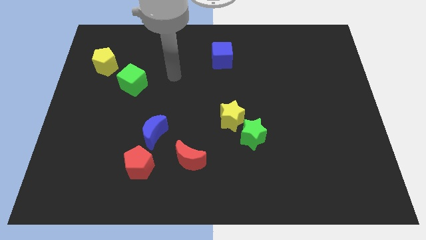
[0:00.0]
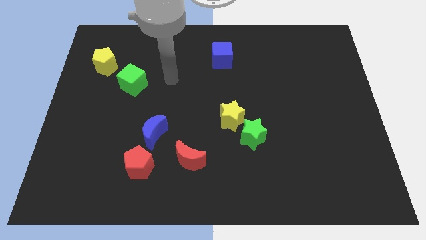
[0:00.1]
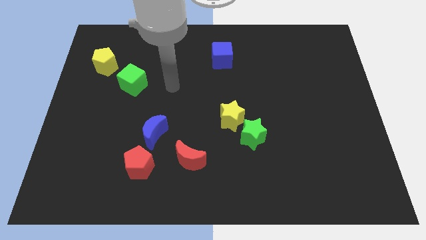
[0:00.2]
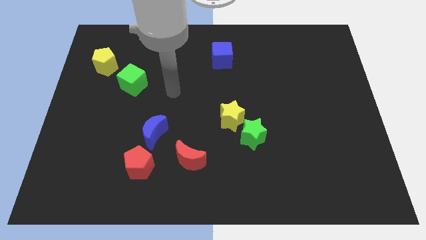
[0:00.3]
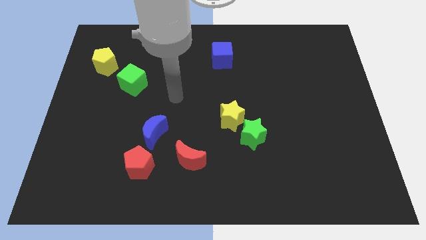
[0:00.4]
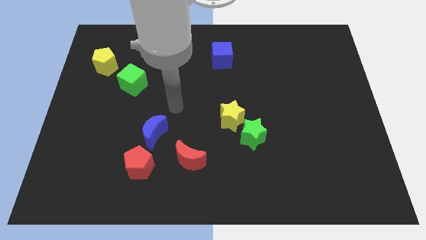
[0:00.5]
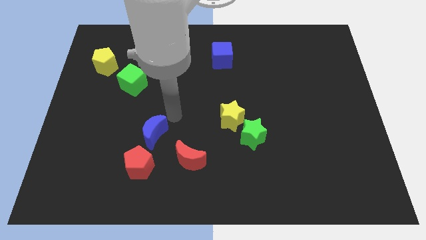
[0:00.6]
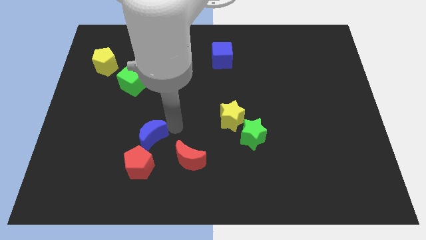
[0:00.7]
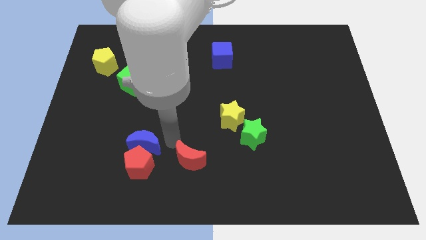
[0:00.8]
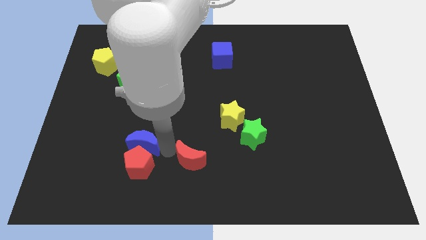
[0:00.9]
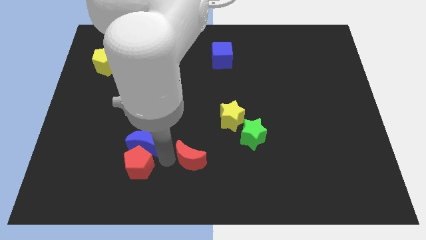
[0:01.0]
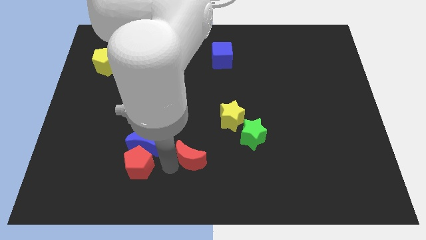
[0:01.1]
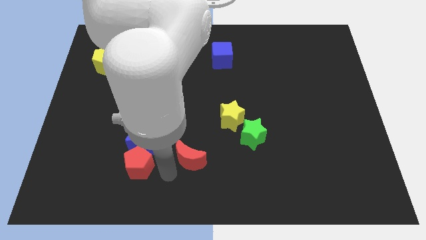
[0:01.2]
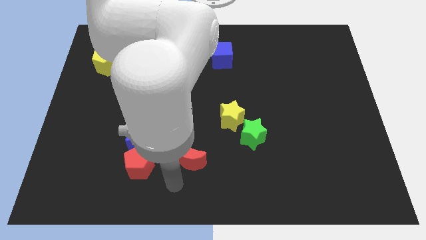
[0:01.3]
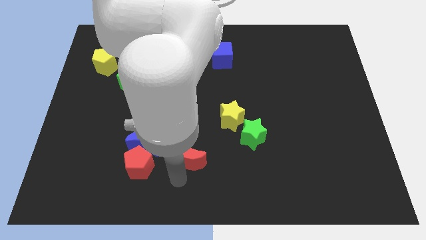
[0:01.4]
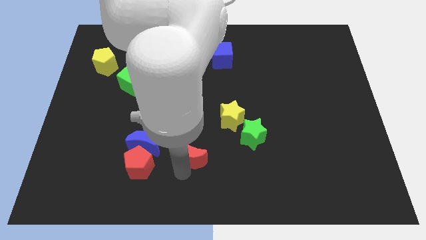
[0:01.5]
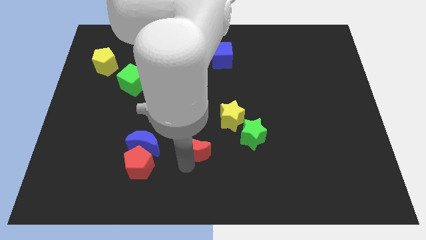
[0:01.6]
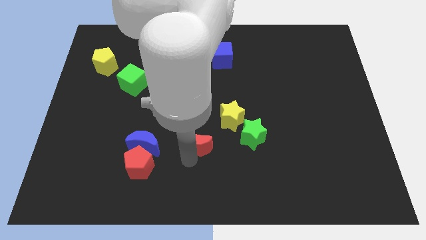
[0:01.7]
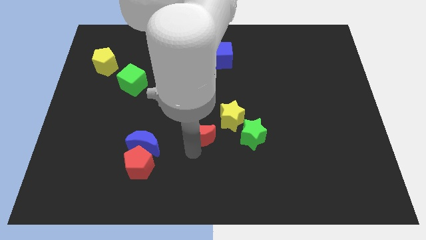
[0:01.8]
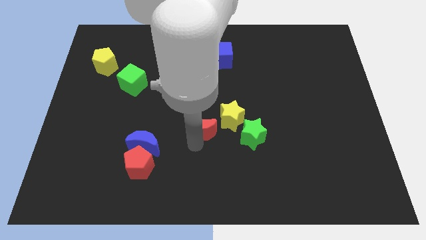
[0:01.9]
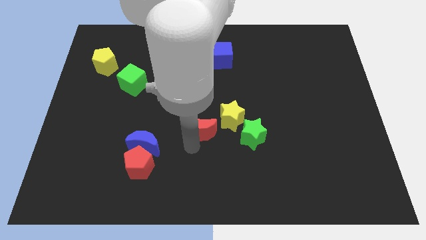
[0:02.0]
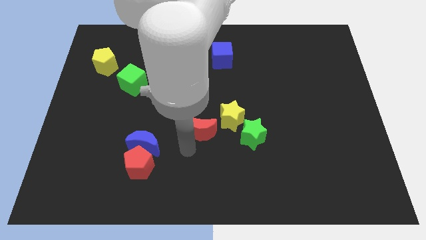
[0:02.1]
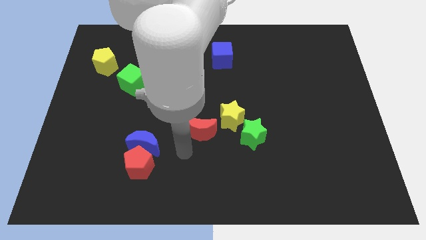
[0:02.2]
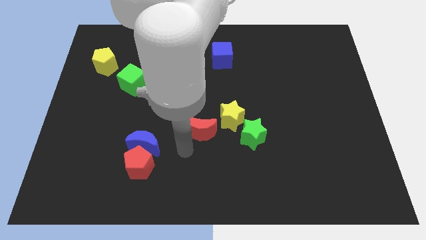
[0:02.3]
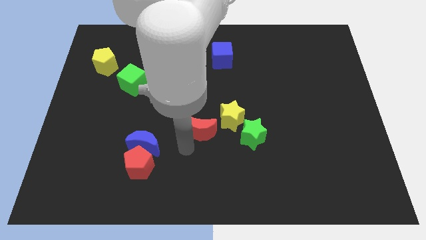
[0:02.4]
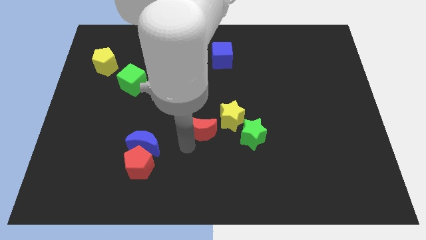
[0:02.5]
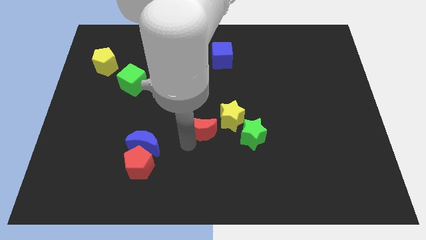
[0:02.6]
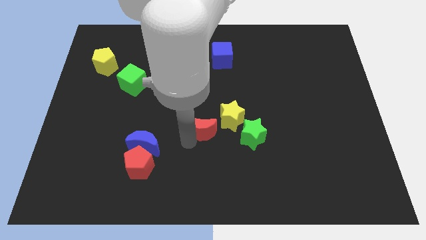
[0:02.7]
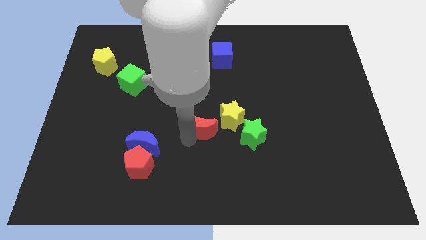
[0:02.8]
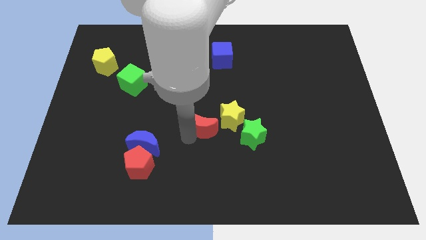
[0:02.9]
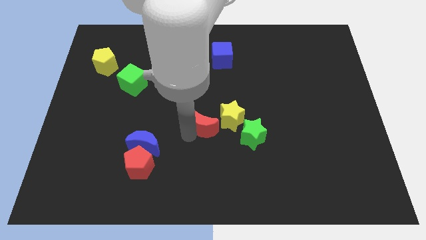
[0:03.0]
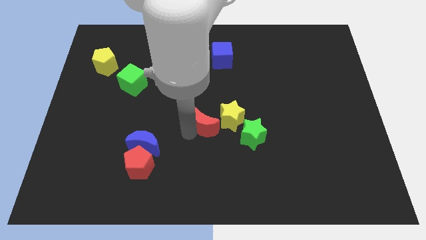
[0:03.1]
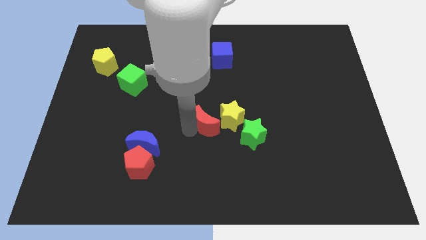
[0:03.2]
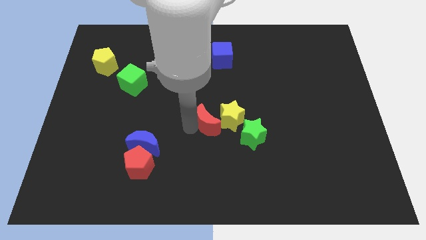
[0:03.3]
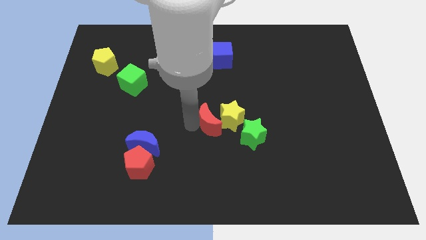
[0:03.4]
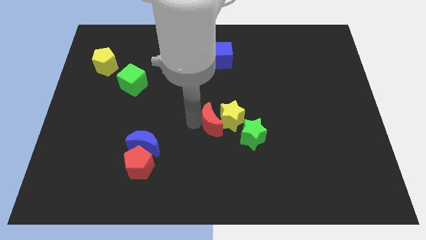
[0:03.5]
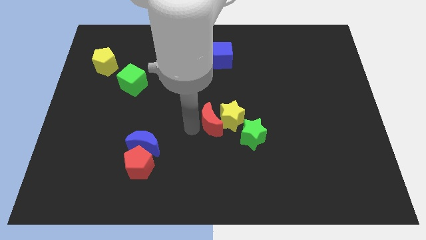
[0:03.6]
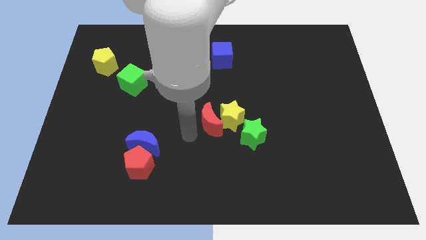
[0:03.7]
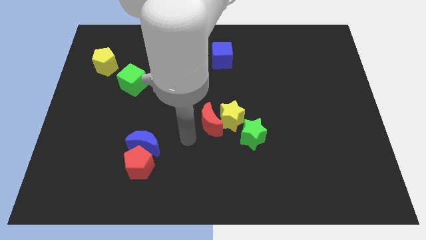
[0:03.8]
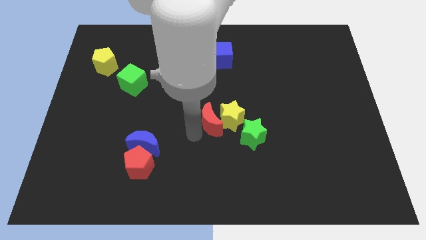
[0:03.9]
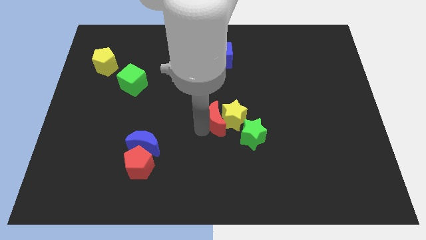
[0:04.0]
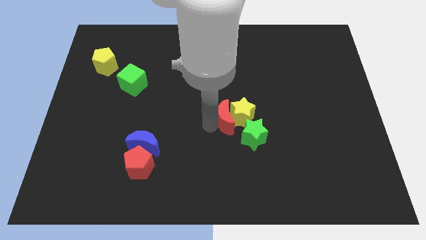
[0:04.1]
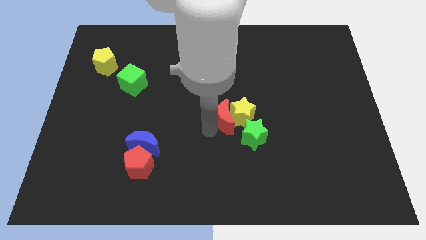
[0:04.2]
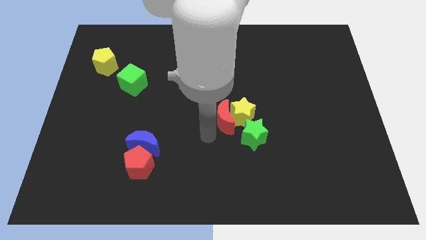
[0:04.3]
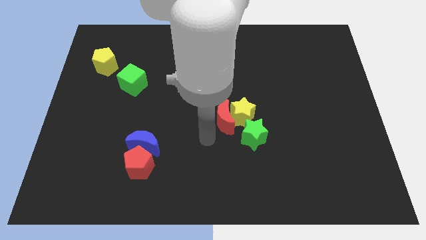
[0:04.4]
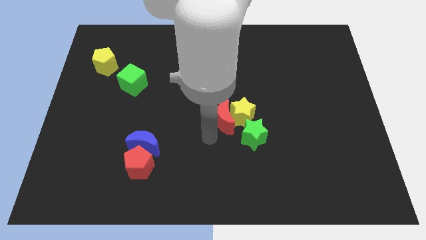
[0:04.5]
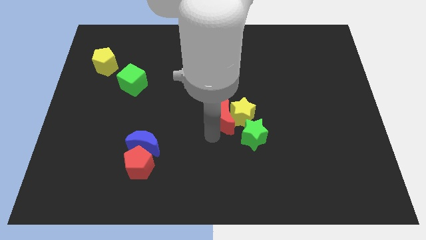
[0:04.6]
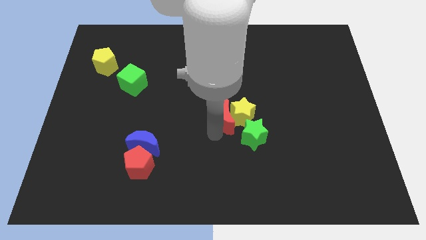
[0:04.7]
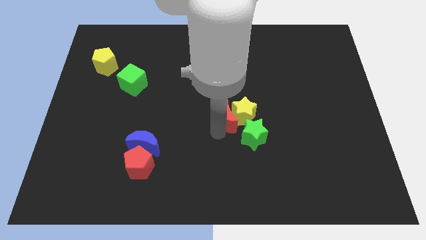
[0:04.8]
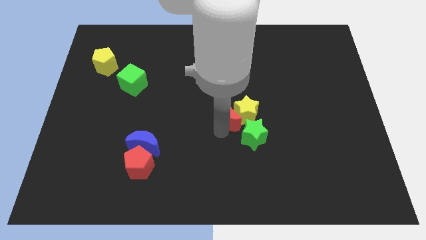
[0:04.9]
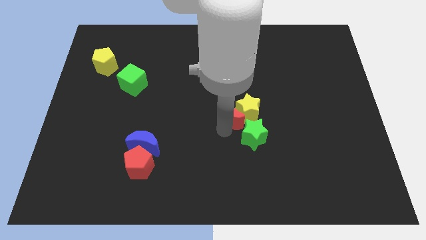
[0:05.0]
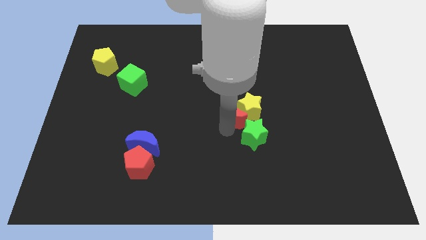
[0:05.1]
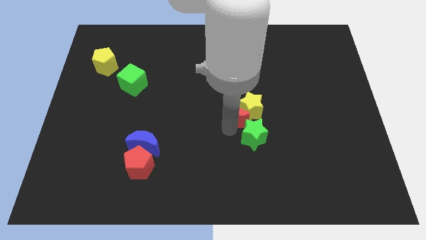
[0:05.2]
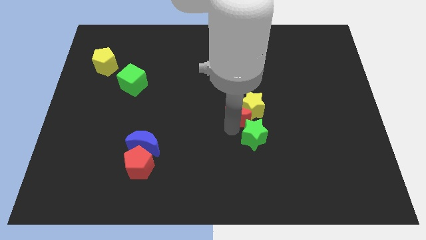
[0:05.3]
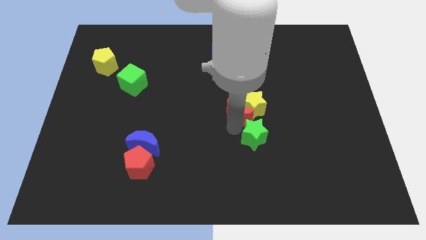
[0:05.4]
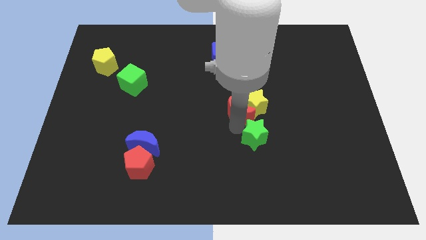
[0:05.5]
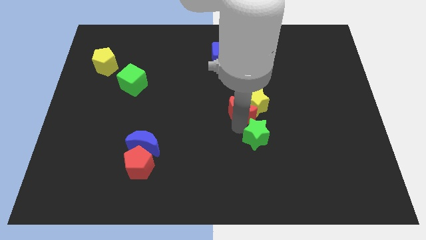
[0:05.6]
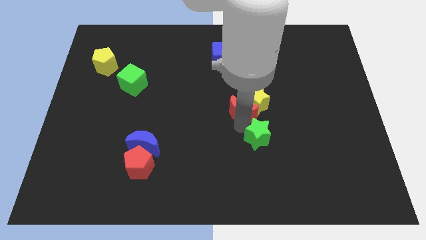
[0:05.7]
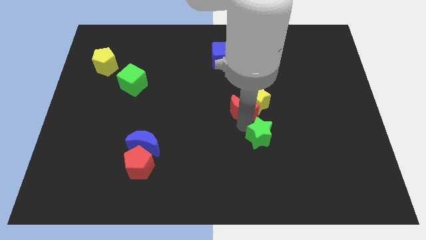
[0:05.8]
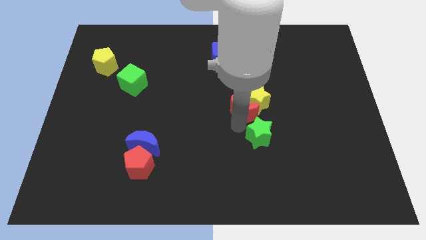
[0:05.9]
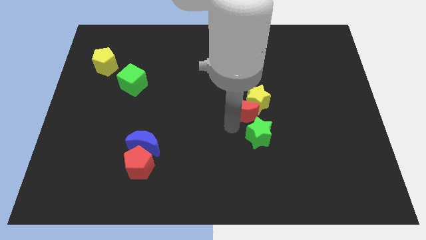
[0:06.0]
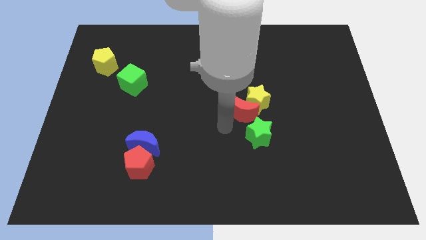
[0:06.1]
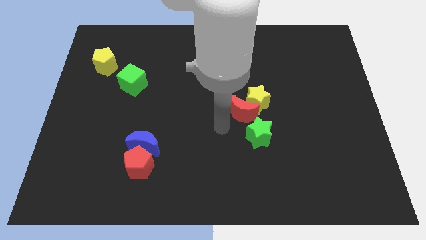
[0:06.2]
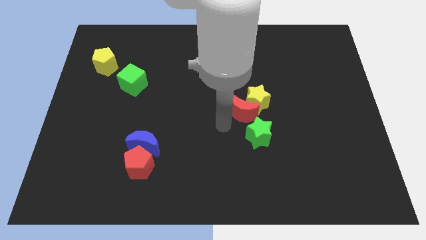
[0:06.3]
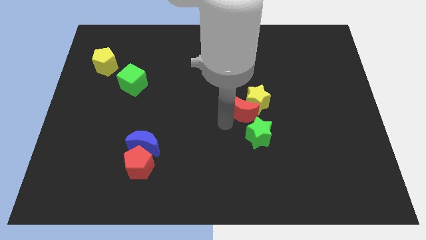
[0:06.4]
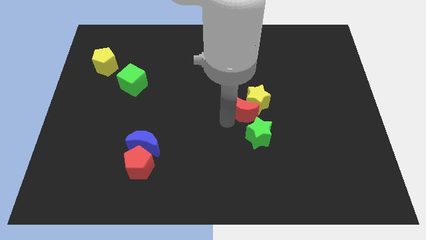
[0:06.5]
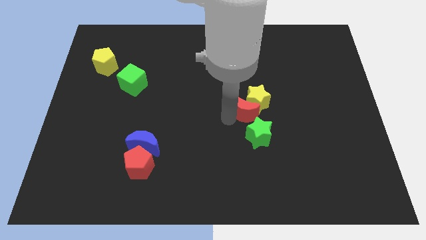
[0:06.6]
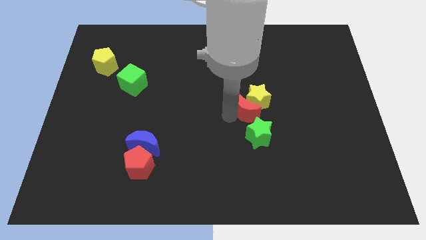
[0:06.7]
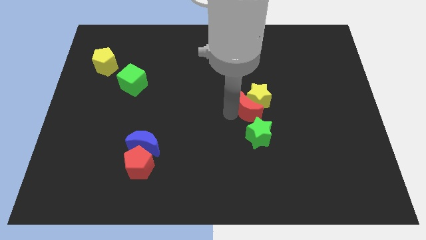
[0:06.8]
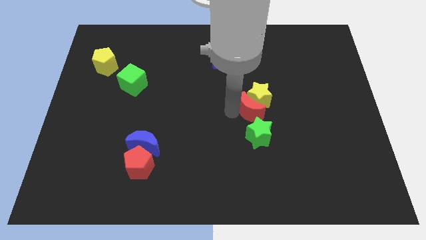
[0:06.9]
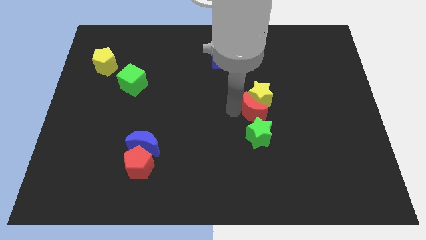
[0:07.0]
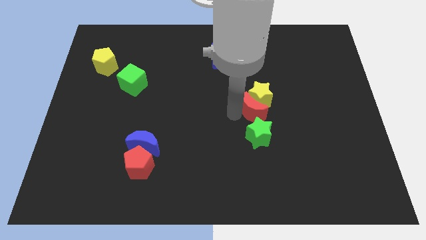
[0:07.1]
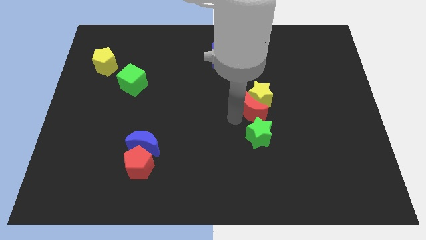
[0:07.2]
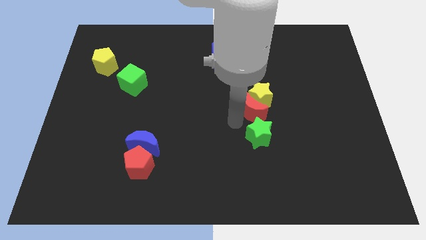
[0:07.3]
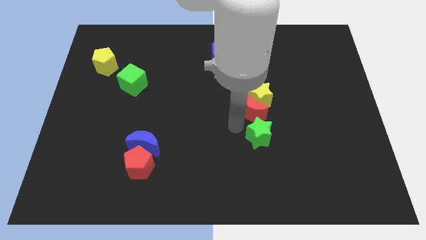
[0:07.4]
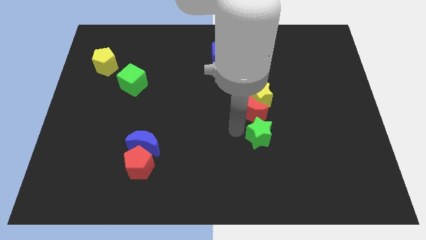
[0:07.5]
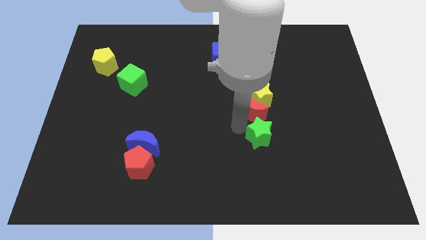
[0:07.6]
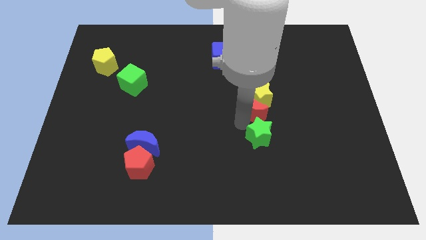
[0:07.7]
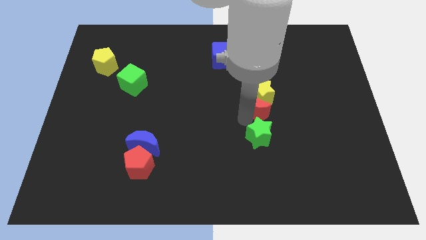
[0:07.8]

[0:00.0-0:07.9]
slide the red moon upwards and to the right diagonally
